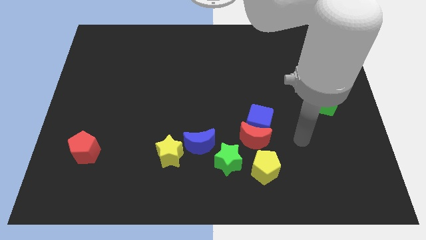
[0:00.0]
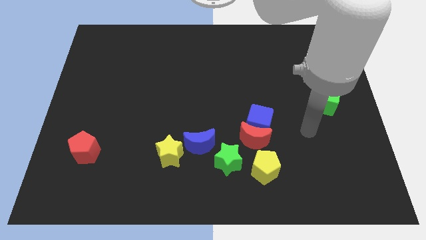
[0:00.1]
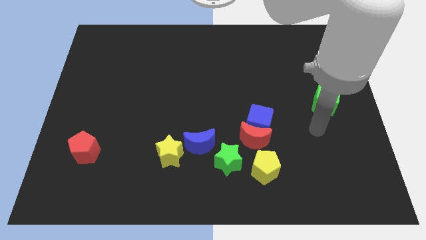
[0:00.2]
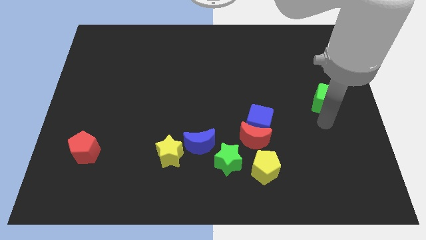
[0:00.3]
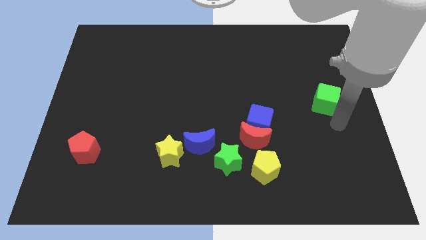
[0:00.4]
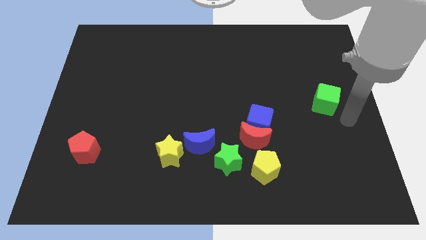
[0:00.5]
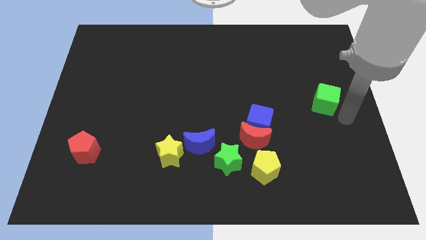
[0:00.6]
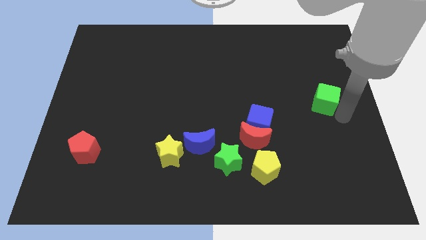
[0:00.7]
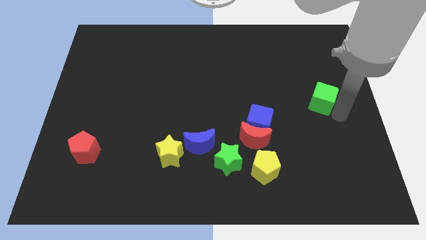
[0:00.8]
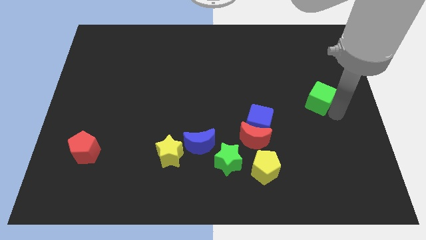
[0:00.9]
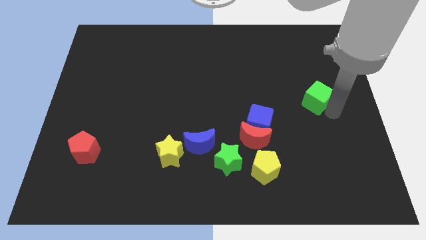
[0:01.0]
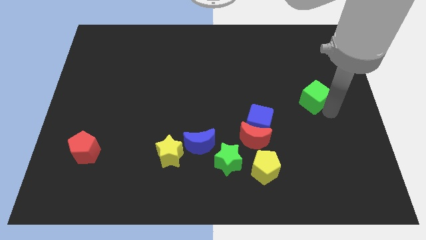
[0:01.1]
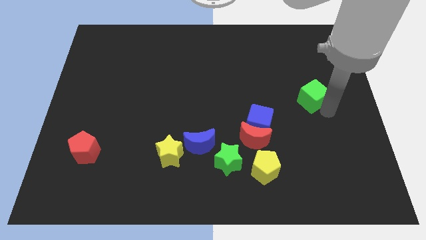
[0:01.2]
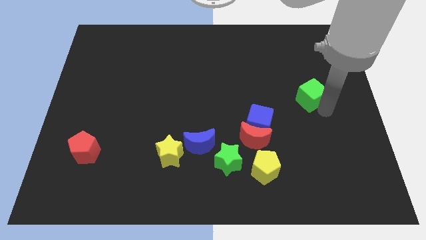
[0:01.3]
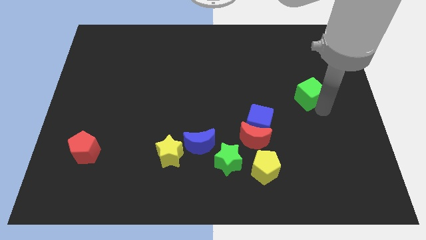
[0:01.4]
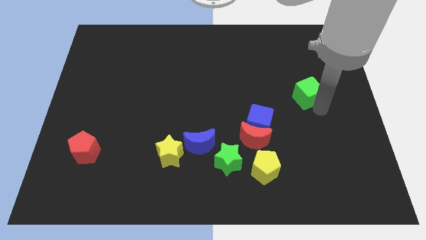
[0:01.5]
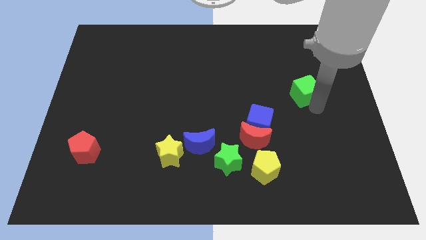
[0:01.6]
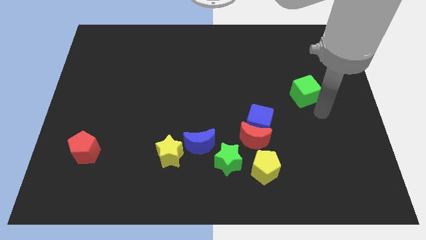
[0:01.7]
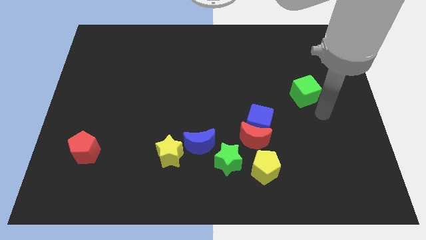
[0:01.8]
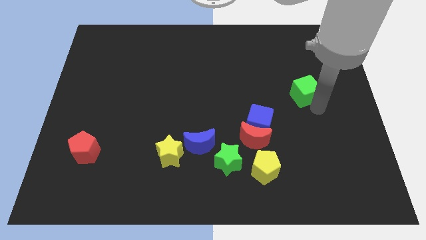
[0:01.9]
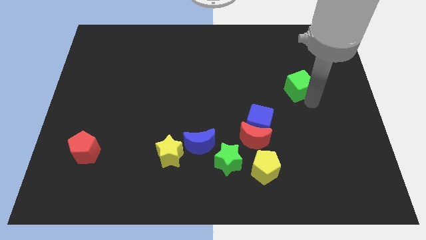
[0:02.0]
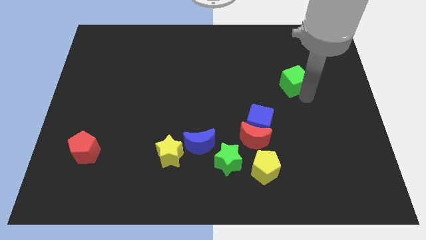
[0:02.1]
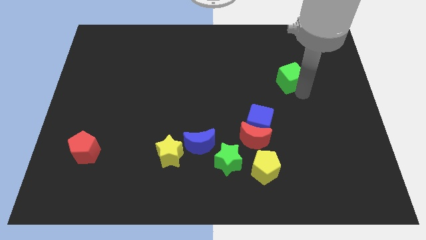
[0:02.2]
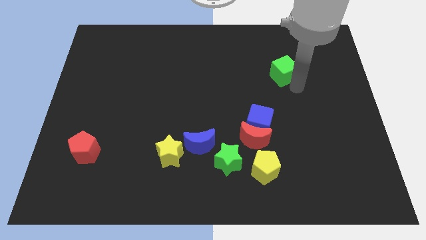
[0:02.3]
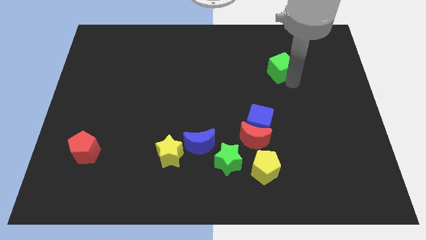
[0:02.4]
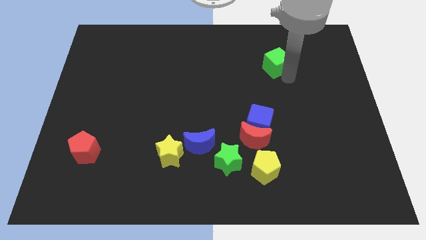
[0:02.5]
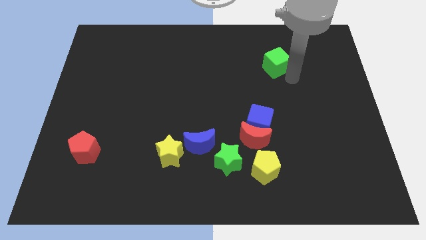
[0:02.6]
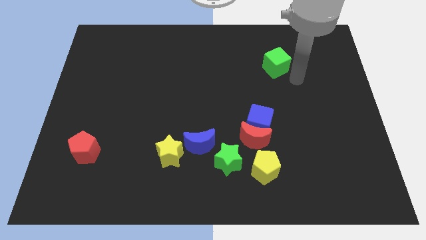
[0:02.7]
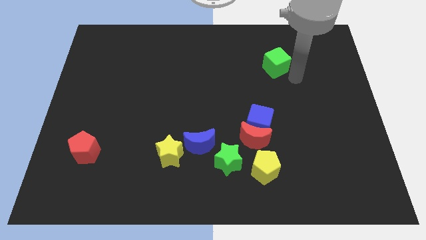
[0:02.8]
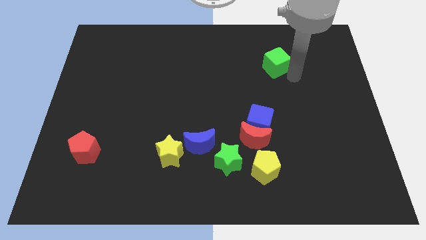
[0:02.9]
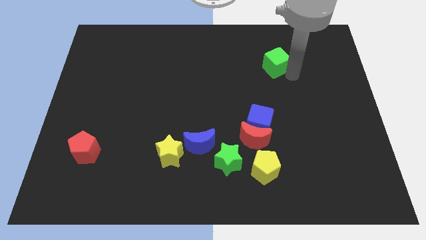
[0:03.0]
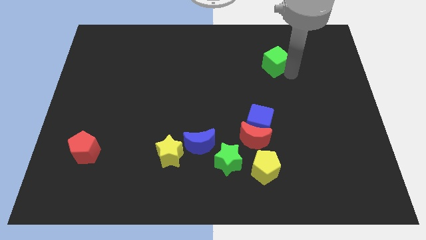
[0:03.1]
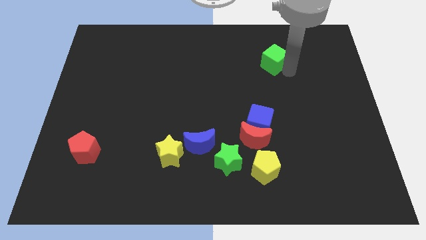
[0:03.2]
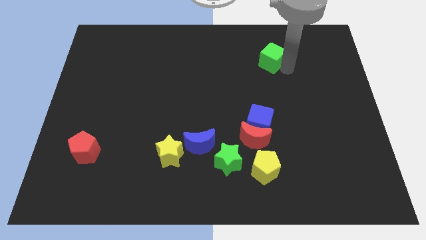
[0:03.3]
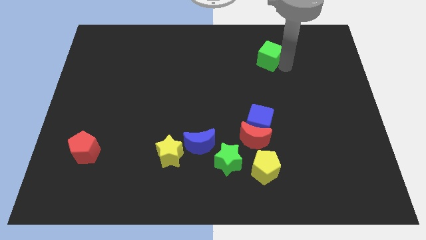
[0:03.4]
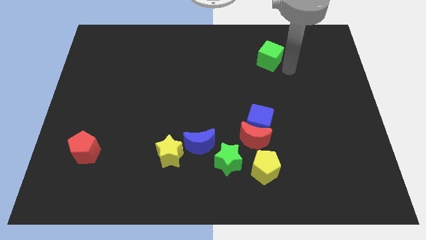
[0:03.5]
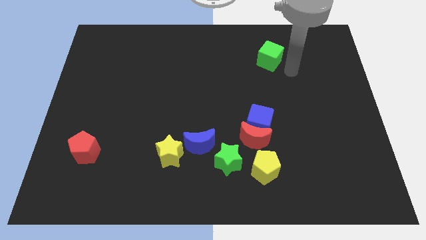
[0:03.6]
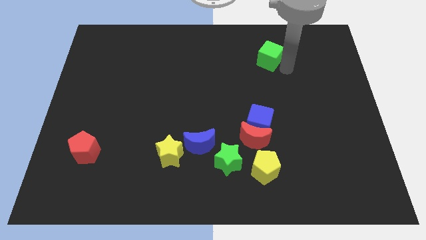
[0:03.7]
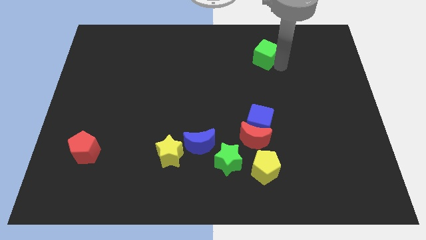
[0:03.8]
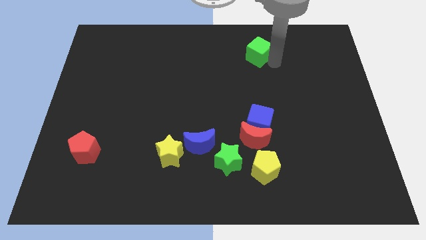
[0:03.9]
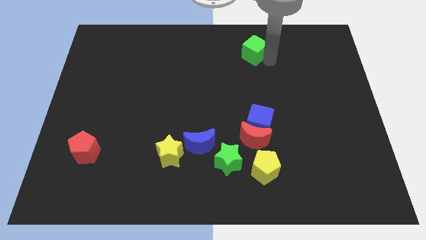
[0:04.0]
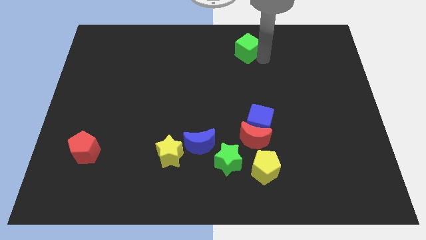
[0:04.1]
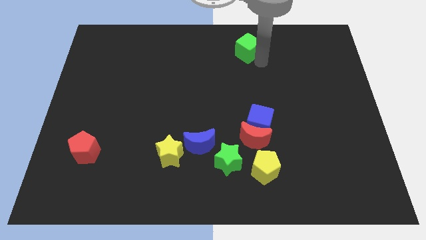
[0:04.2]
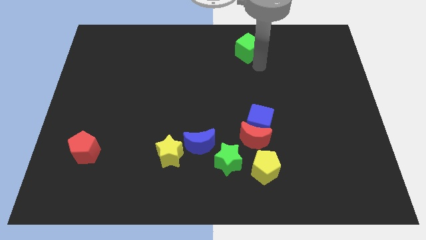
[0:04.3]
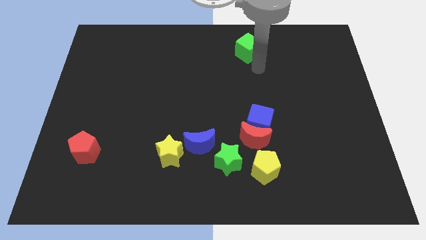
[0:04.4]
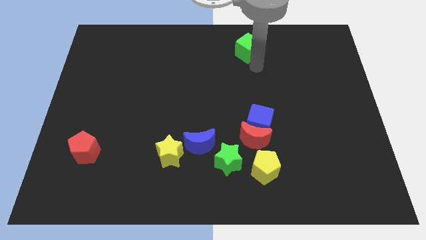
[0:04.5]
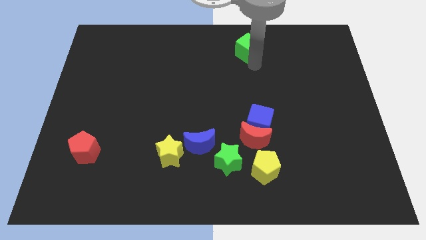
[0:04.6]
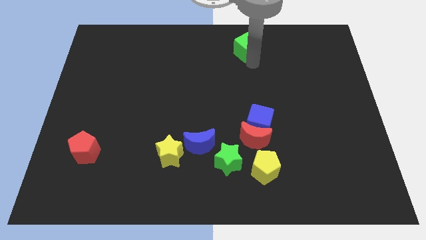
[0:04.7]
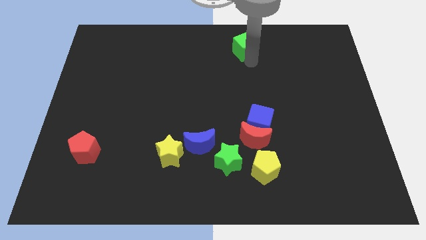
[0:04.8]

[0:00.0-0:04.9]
push the green cube to the top

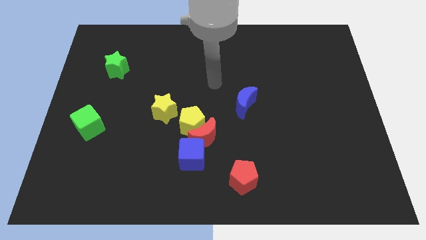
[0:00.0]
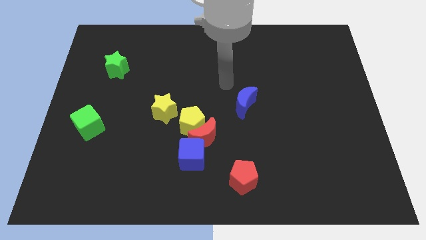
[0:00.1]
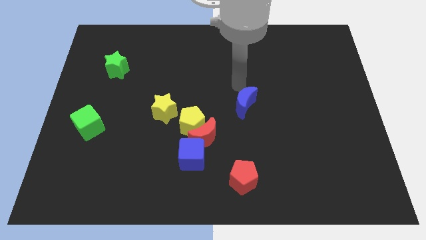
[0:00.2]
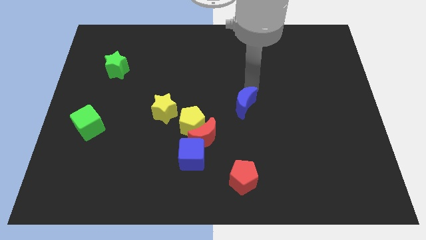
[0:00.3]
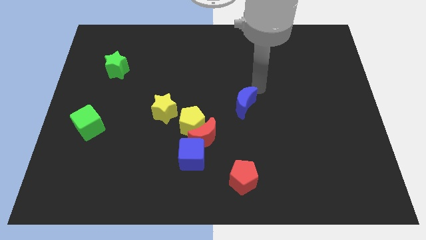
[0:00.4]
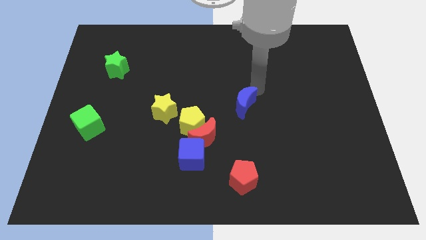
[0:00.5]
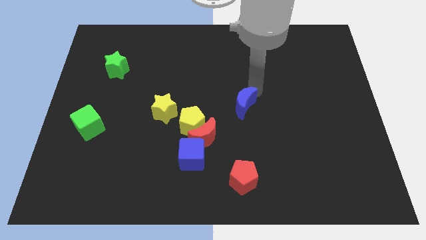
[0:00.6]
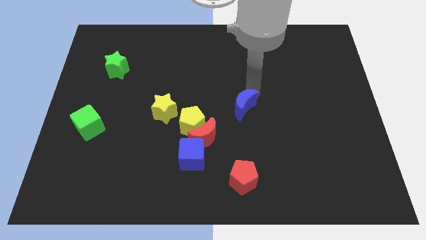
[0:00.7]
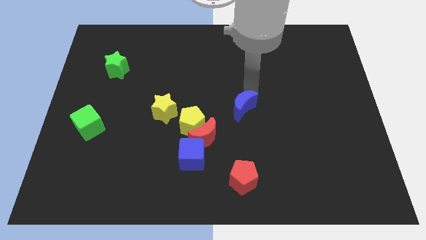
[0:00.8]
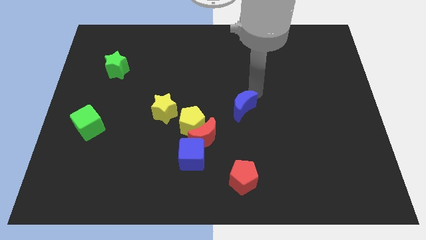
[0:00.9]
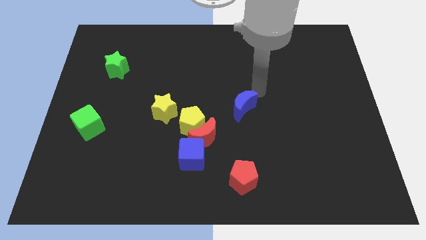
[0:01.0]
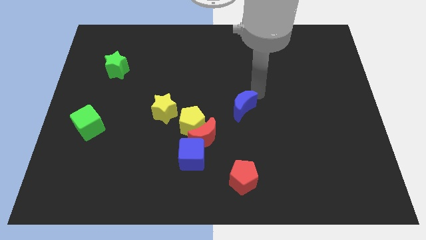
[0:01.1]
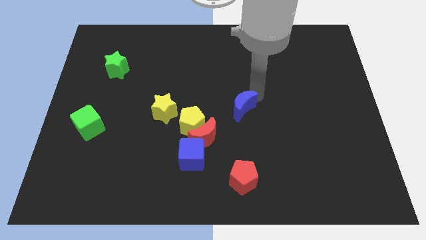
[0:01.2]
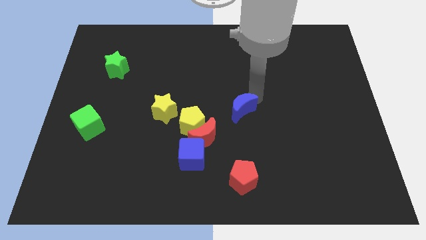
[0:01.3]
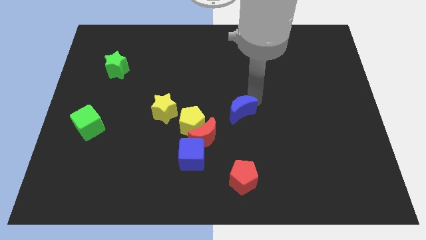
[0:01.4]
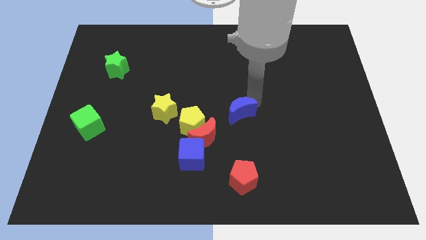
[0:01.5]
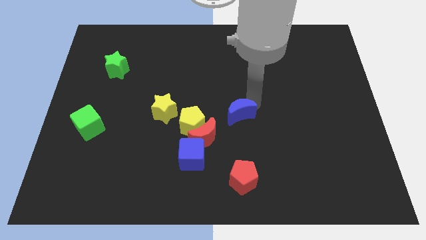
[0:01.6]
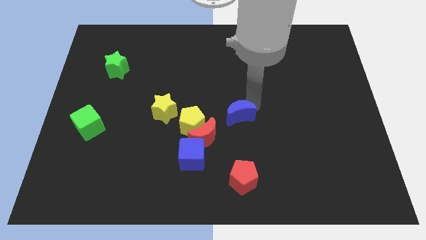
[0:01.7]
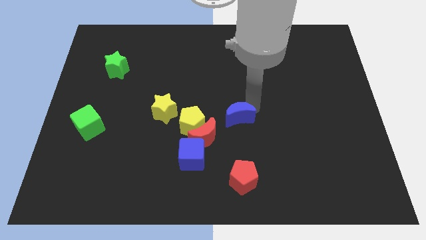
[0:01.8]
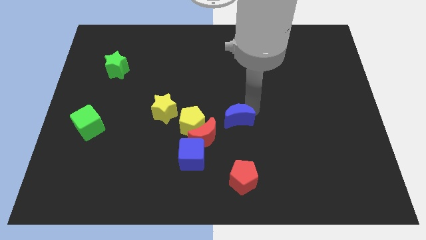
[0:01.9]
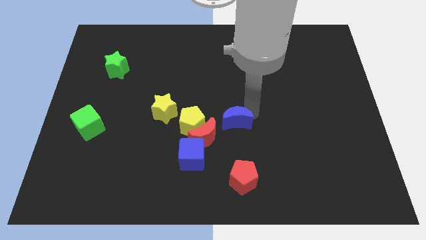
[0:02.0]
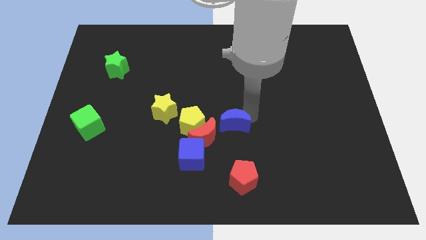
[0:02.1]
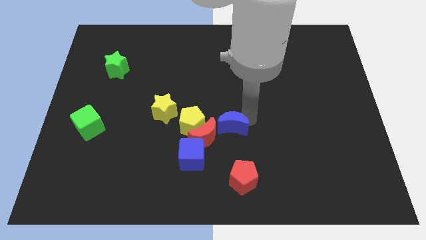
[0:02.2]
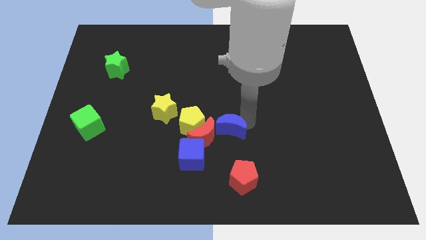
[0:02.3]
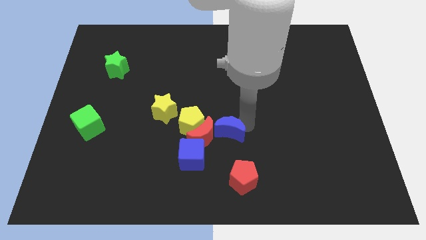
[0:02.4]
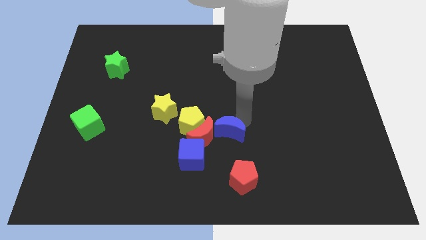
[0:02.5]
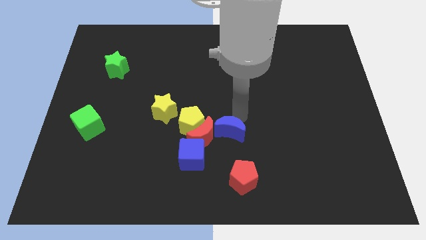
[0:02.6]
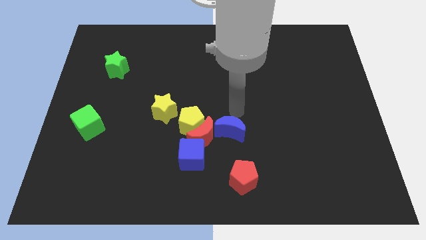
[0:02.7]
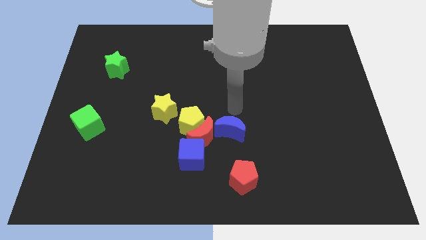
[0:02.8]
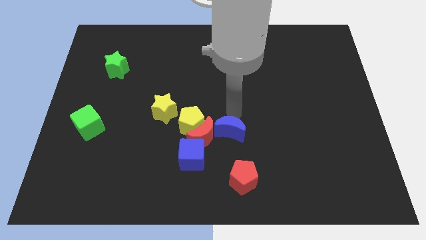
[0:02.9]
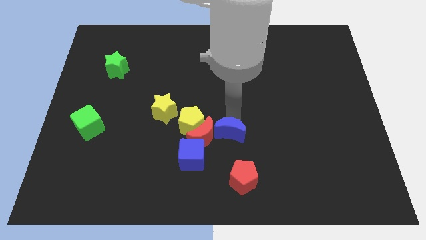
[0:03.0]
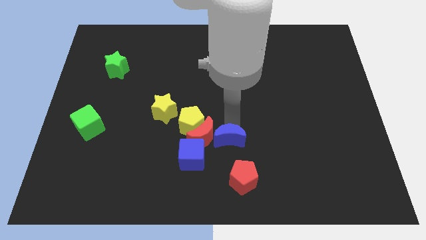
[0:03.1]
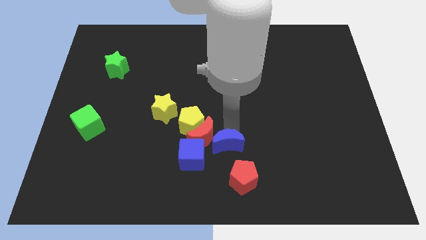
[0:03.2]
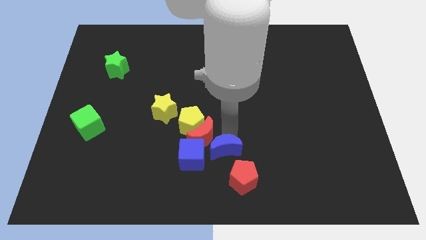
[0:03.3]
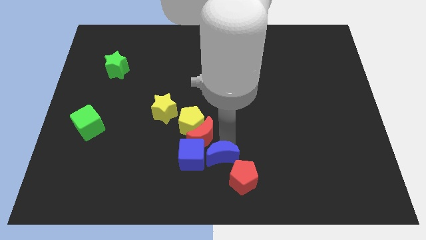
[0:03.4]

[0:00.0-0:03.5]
push the blue moon to the bottom
